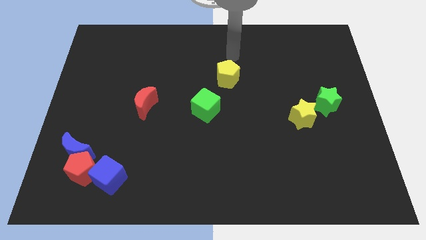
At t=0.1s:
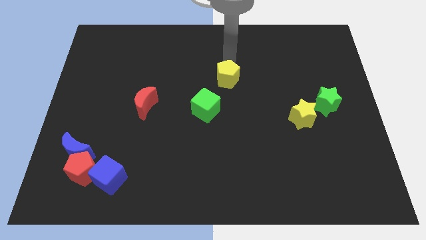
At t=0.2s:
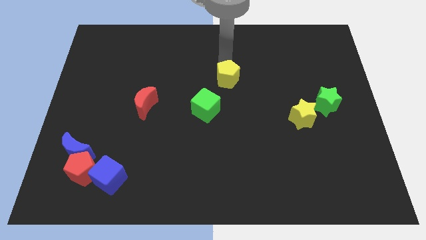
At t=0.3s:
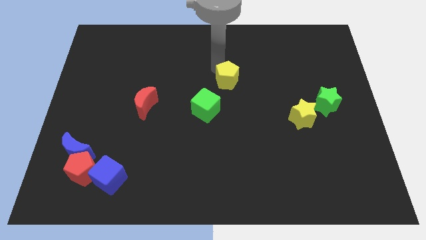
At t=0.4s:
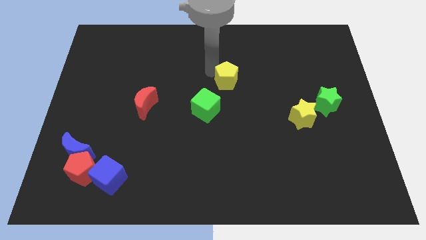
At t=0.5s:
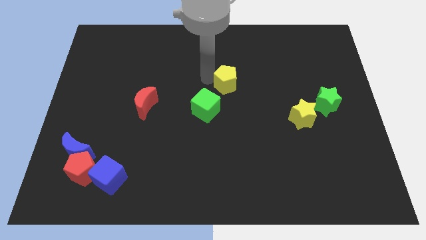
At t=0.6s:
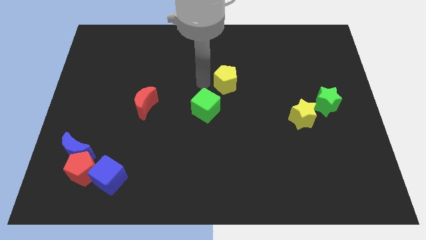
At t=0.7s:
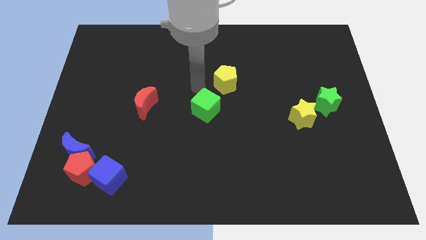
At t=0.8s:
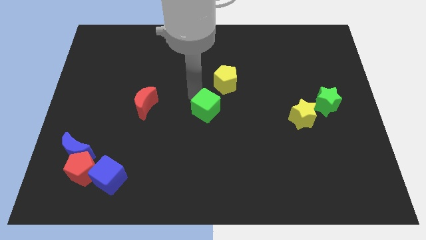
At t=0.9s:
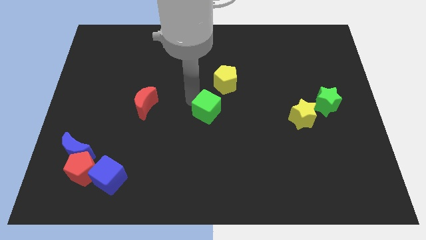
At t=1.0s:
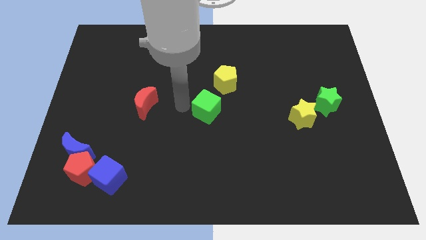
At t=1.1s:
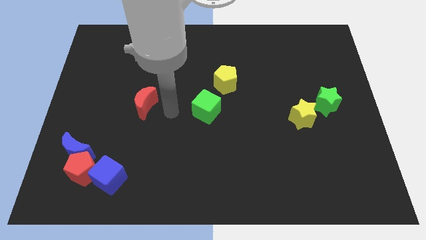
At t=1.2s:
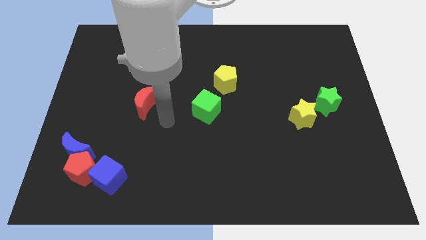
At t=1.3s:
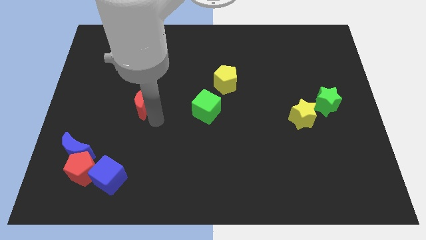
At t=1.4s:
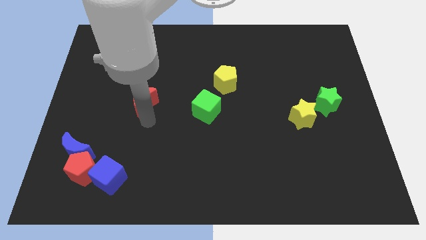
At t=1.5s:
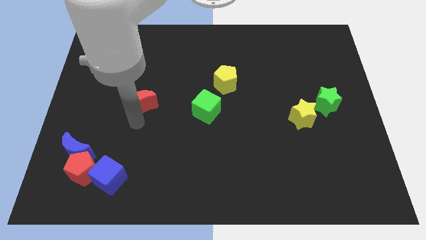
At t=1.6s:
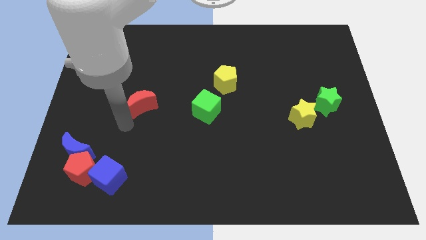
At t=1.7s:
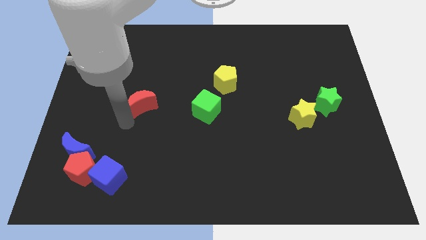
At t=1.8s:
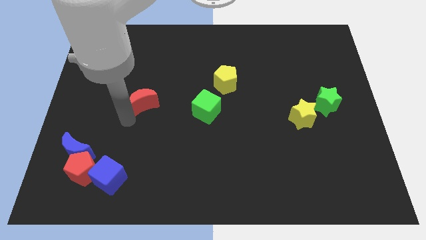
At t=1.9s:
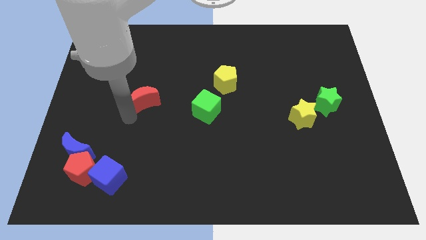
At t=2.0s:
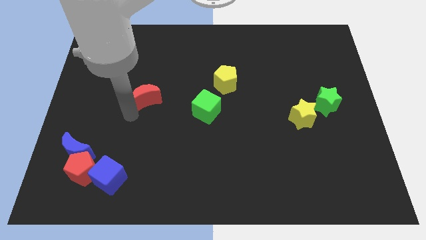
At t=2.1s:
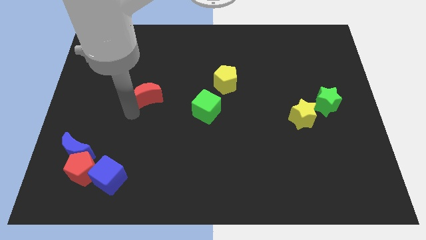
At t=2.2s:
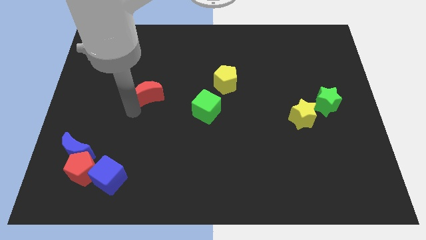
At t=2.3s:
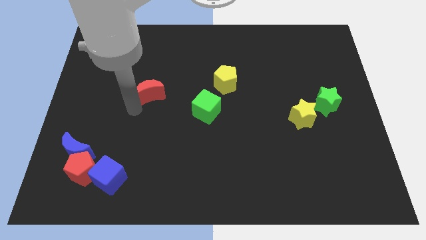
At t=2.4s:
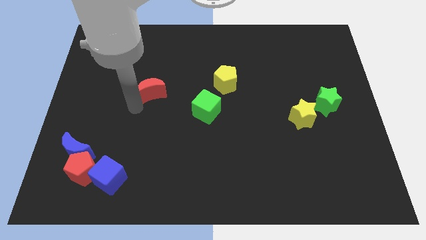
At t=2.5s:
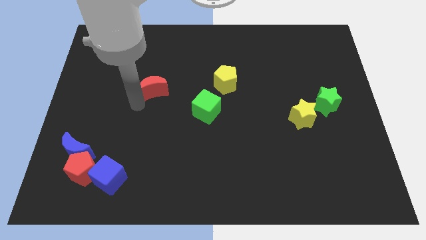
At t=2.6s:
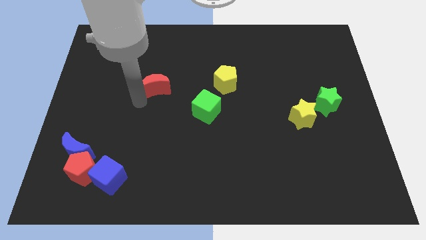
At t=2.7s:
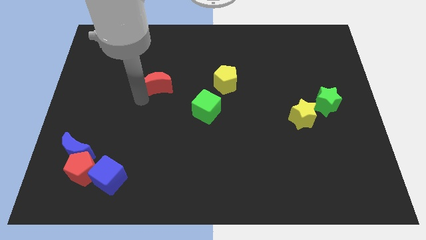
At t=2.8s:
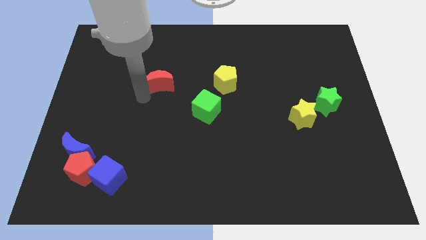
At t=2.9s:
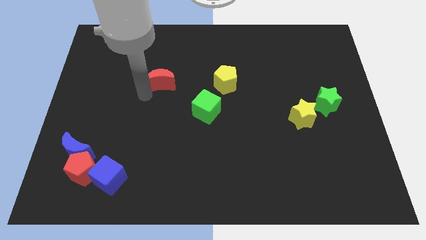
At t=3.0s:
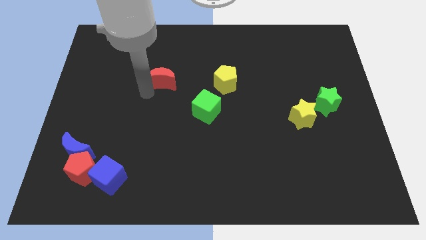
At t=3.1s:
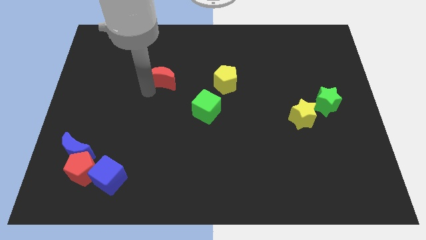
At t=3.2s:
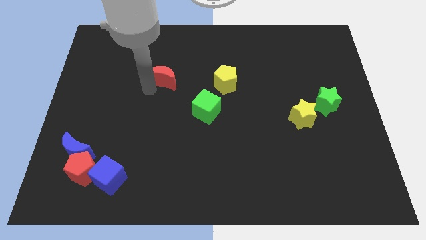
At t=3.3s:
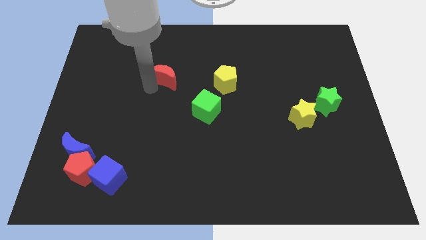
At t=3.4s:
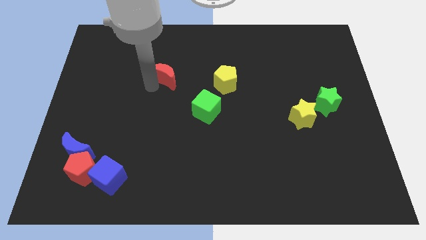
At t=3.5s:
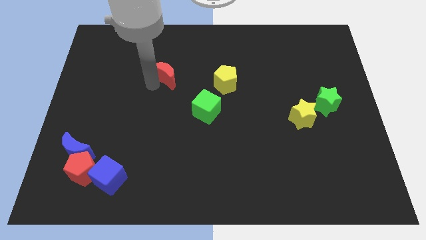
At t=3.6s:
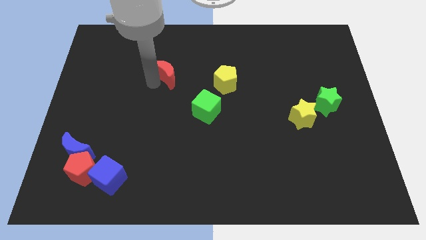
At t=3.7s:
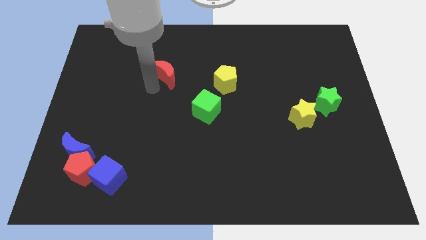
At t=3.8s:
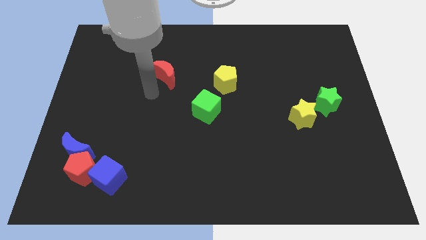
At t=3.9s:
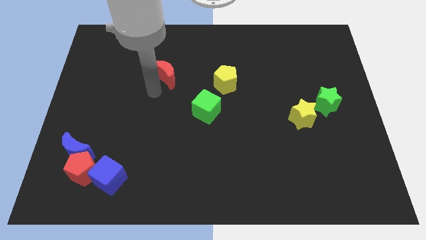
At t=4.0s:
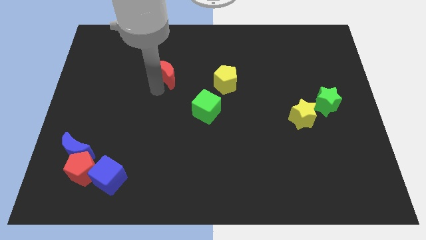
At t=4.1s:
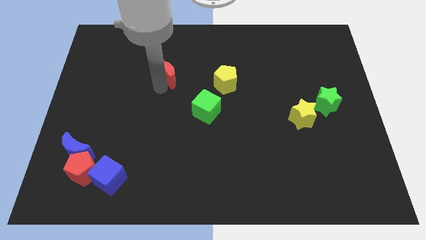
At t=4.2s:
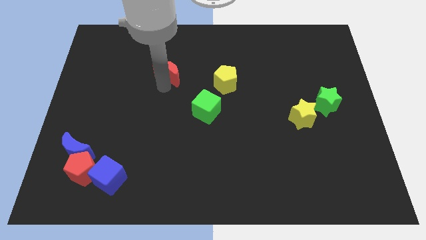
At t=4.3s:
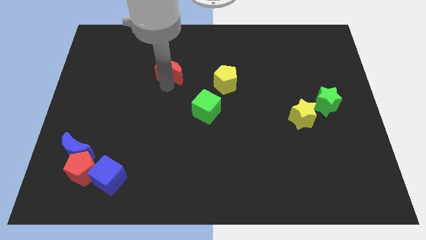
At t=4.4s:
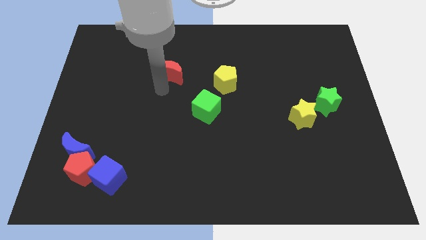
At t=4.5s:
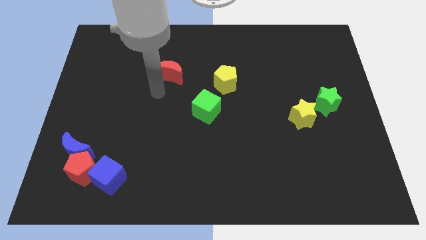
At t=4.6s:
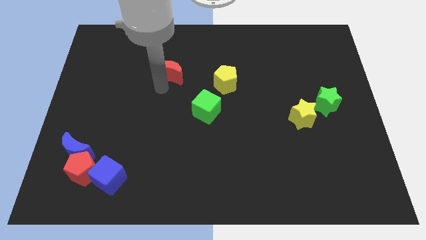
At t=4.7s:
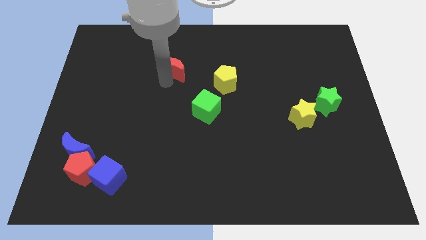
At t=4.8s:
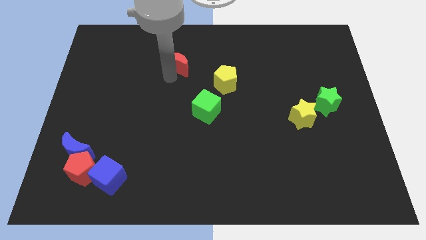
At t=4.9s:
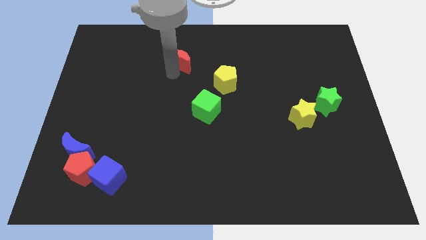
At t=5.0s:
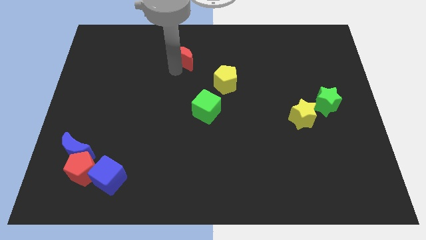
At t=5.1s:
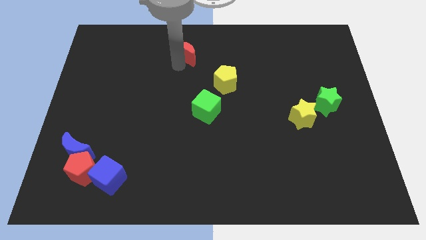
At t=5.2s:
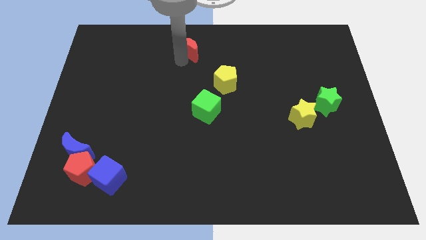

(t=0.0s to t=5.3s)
move the red moon to the towards your base

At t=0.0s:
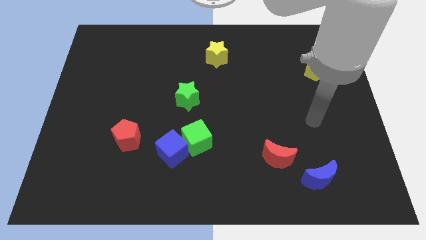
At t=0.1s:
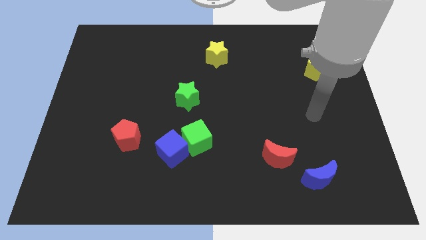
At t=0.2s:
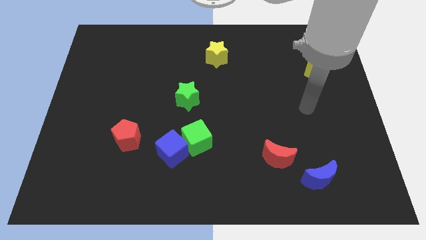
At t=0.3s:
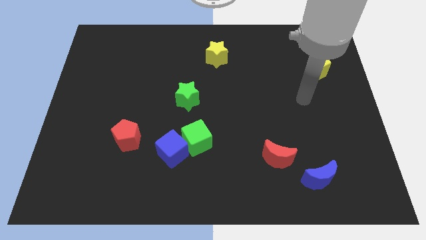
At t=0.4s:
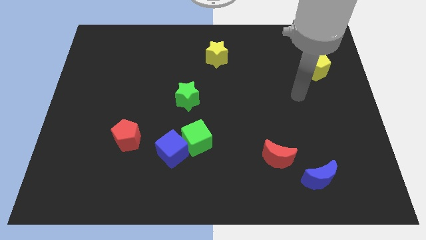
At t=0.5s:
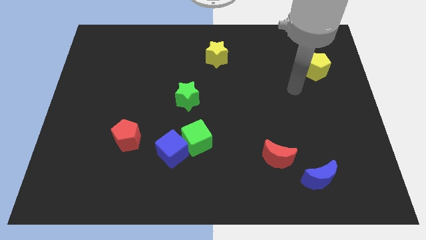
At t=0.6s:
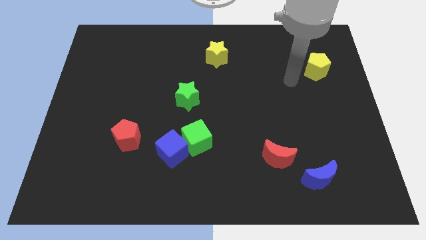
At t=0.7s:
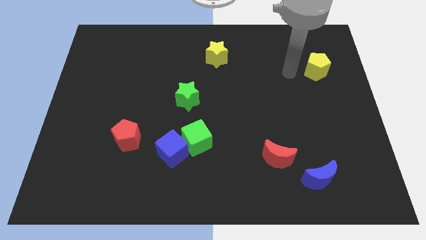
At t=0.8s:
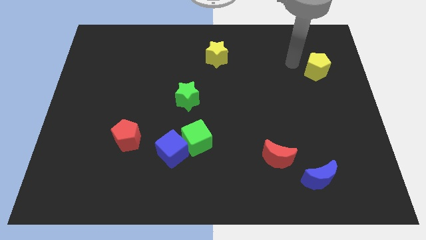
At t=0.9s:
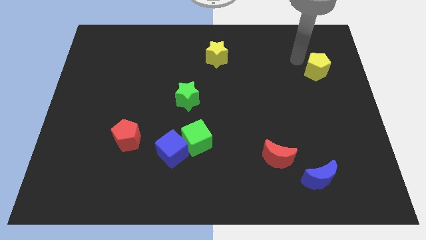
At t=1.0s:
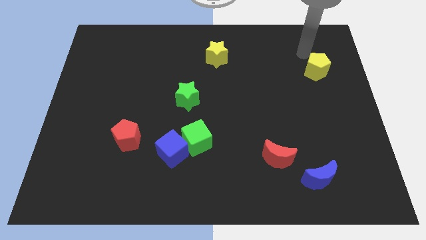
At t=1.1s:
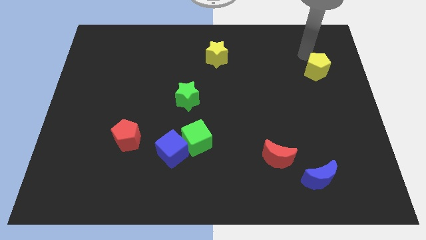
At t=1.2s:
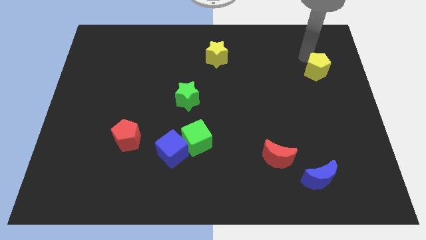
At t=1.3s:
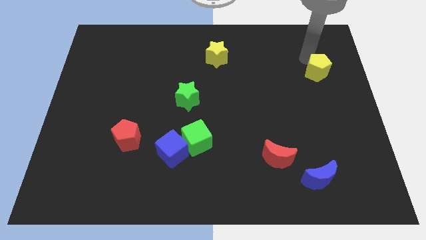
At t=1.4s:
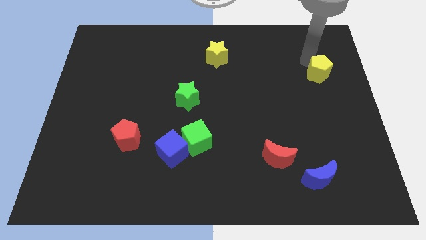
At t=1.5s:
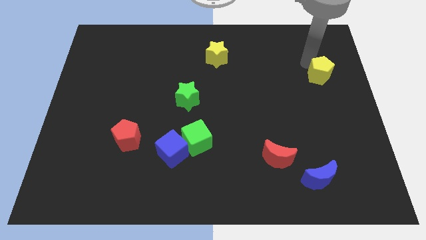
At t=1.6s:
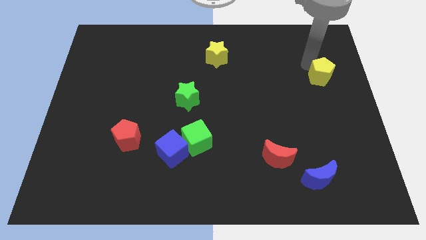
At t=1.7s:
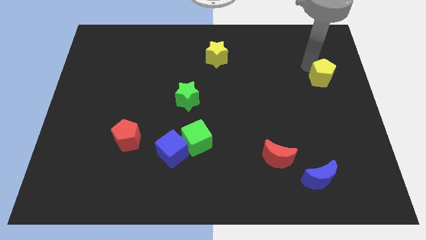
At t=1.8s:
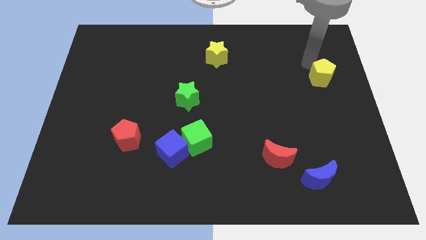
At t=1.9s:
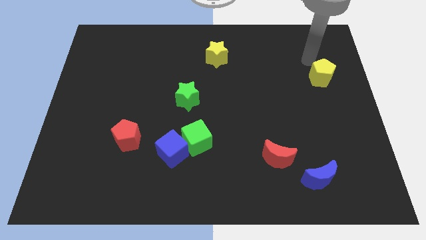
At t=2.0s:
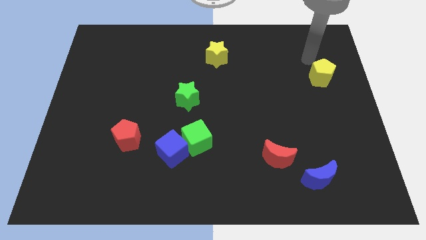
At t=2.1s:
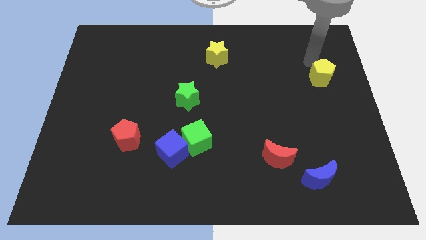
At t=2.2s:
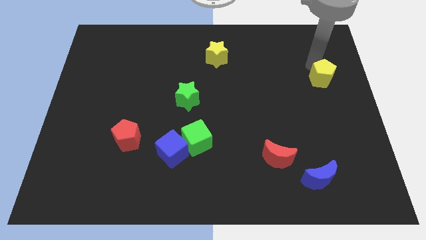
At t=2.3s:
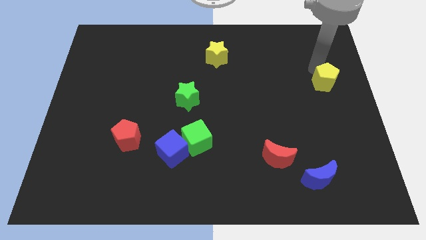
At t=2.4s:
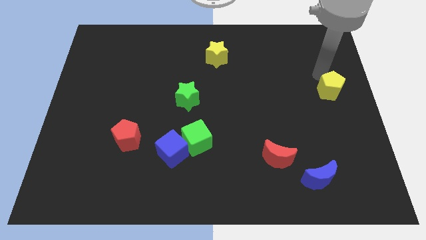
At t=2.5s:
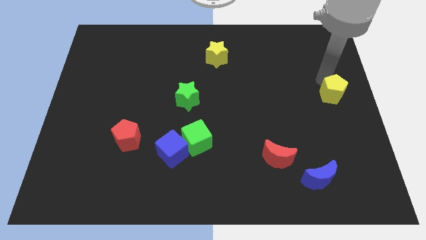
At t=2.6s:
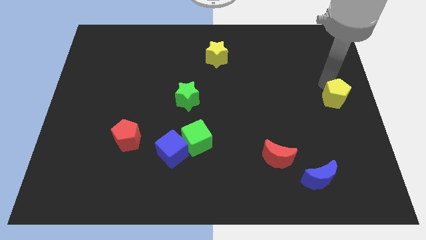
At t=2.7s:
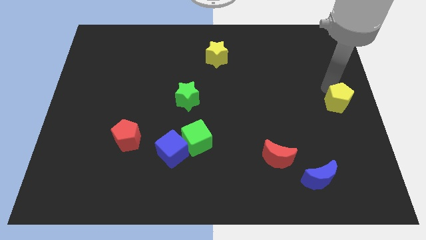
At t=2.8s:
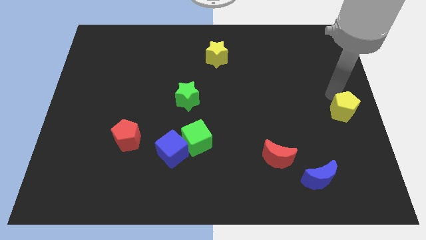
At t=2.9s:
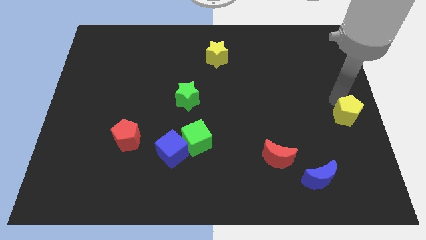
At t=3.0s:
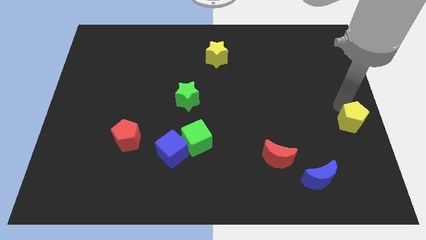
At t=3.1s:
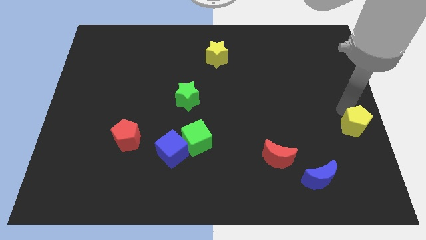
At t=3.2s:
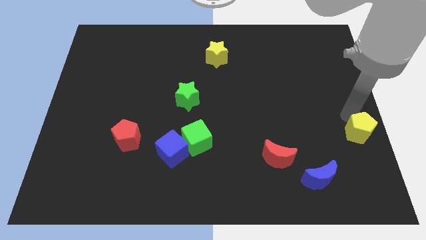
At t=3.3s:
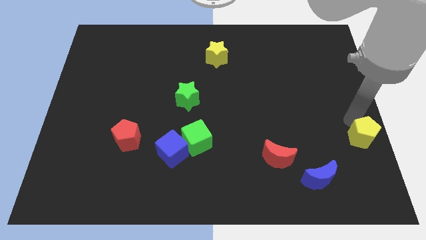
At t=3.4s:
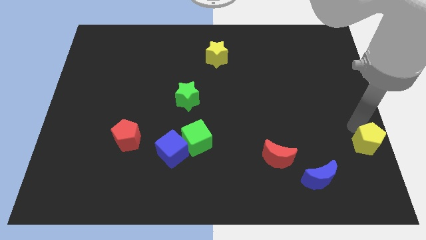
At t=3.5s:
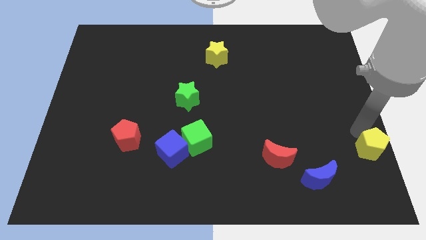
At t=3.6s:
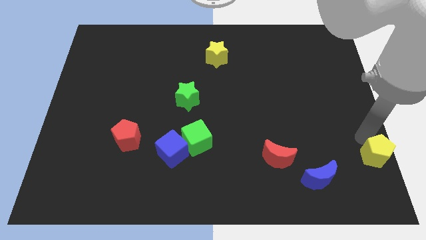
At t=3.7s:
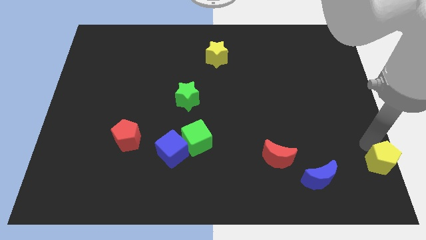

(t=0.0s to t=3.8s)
move the yellow pentagon to the bottom right of the board
